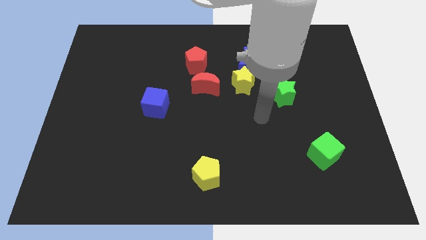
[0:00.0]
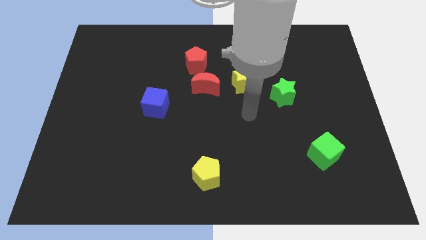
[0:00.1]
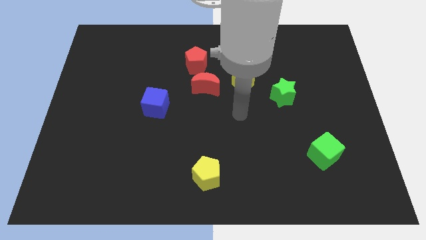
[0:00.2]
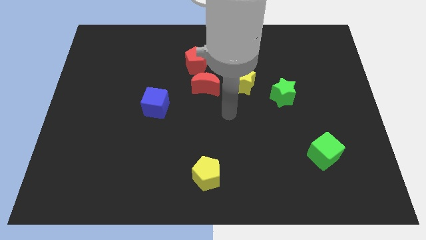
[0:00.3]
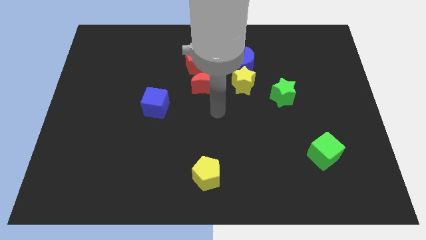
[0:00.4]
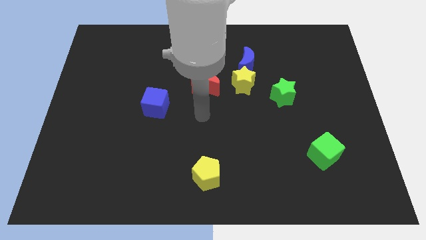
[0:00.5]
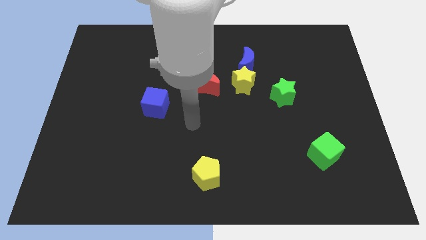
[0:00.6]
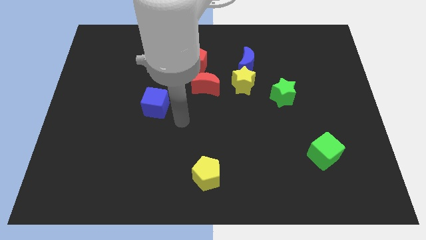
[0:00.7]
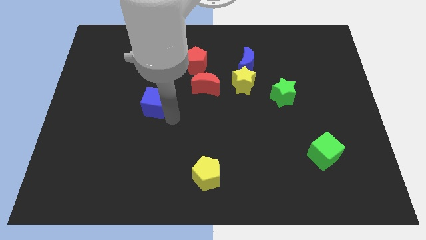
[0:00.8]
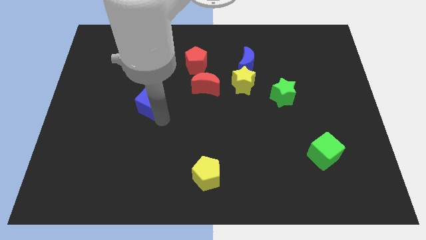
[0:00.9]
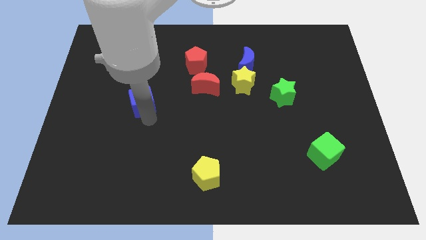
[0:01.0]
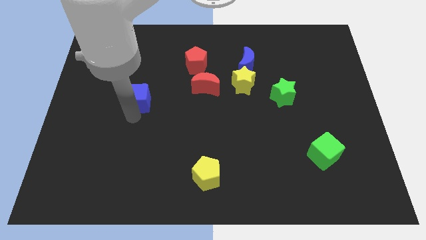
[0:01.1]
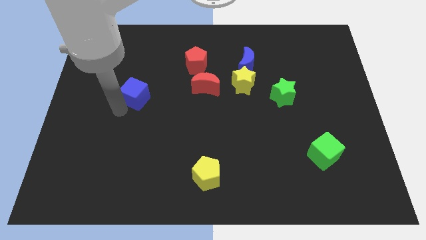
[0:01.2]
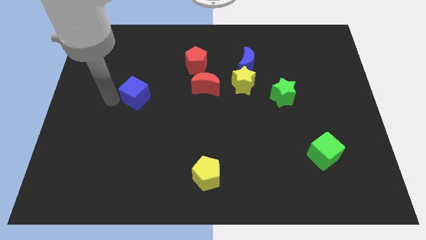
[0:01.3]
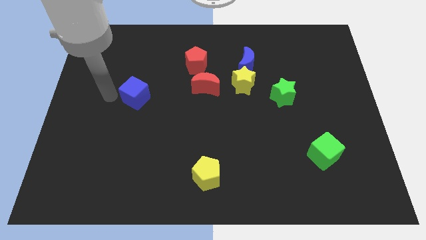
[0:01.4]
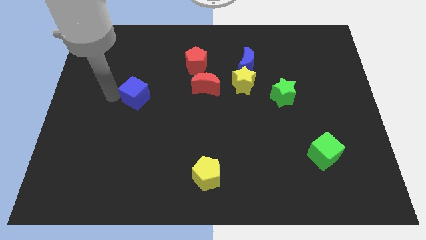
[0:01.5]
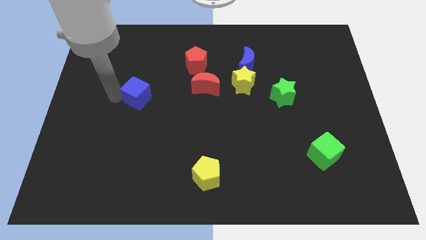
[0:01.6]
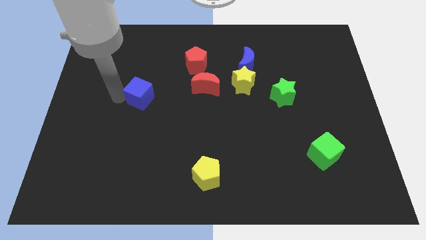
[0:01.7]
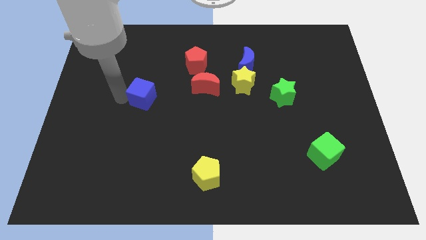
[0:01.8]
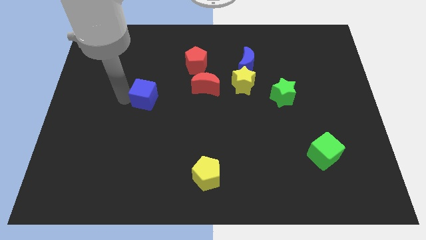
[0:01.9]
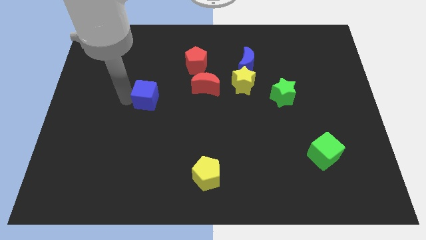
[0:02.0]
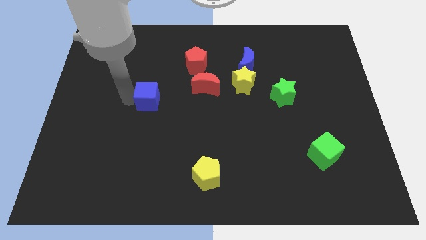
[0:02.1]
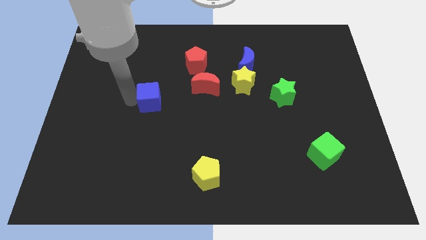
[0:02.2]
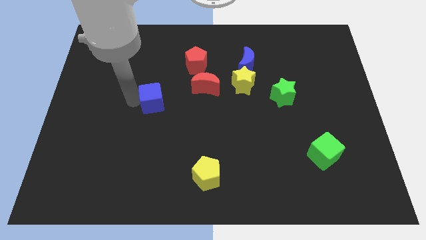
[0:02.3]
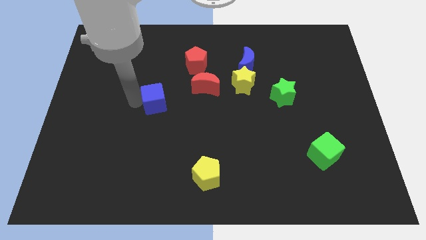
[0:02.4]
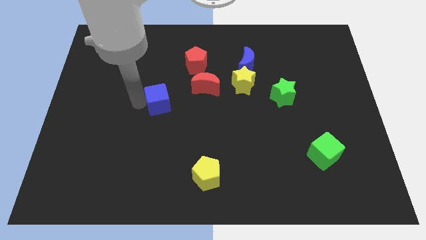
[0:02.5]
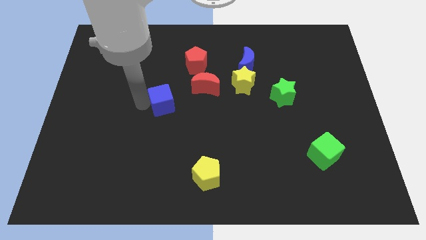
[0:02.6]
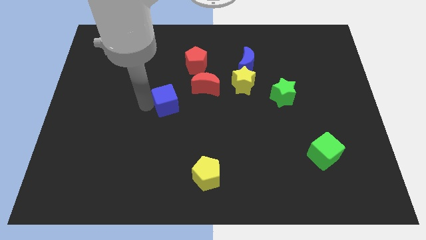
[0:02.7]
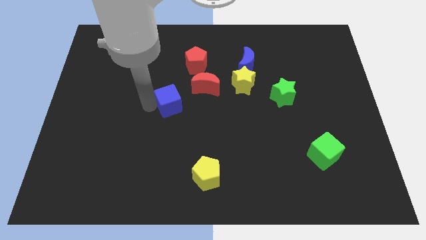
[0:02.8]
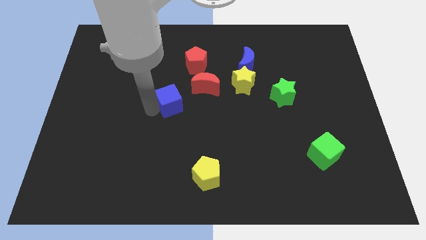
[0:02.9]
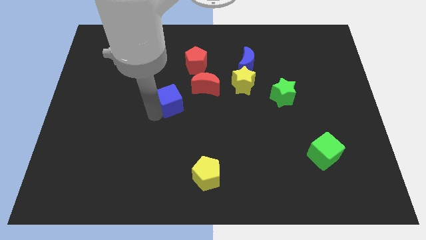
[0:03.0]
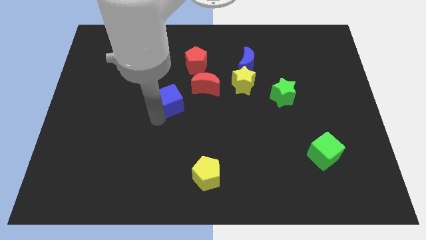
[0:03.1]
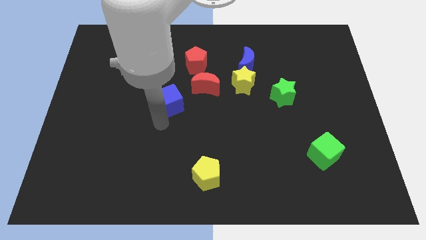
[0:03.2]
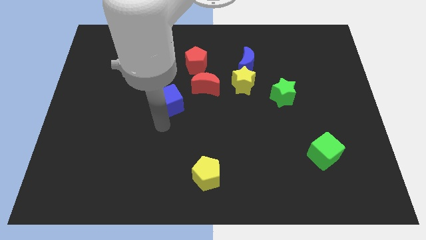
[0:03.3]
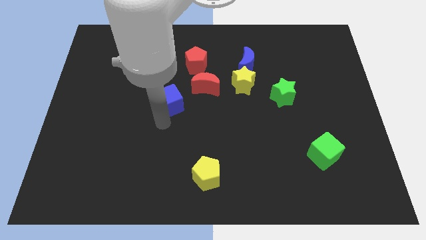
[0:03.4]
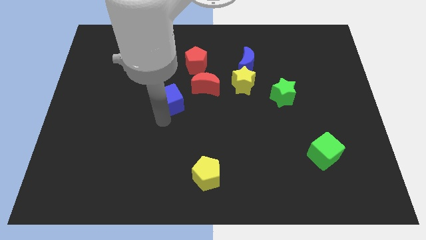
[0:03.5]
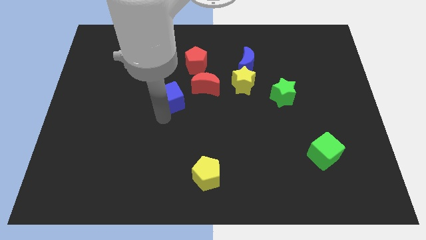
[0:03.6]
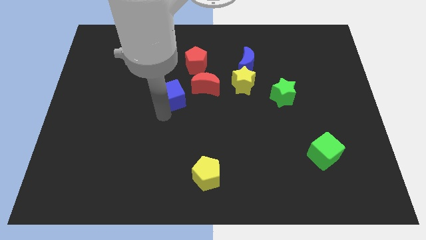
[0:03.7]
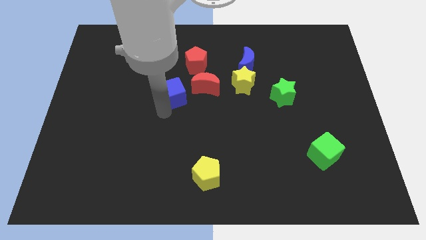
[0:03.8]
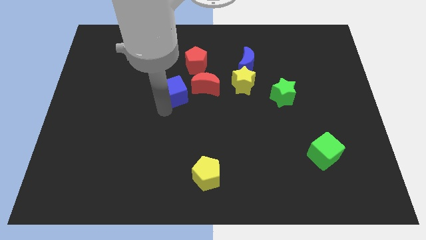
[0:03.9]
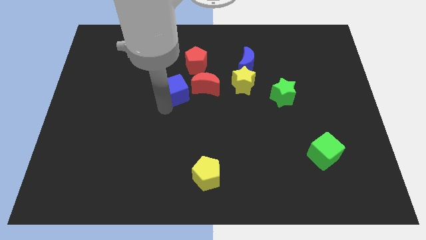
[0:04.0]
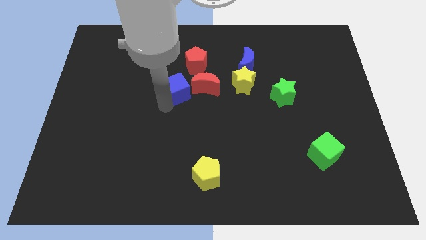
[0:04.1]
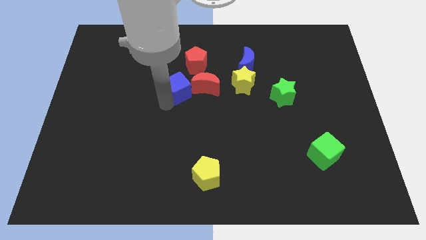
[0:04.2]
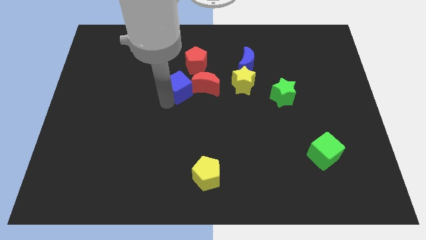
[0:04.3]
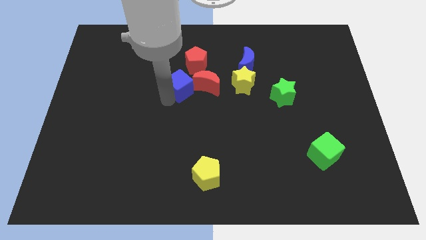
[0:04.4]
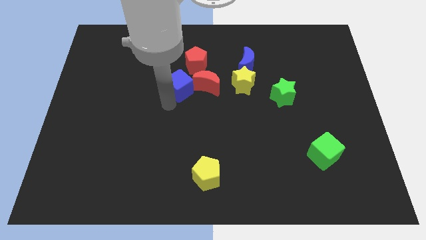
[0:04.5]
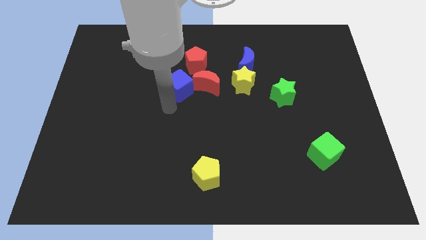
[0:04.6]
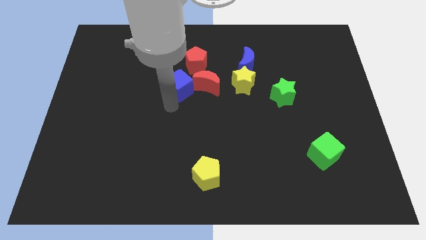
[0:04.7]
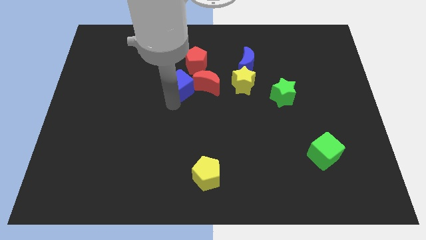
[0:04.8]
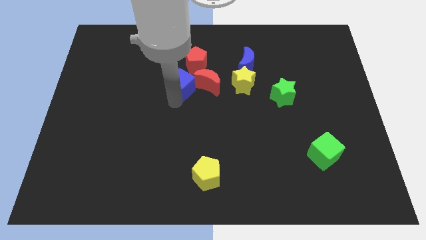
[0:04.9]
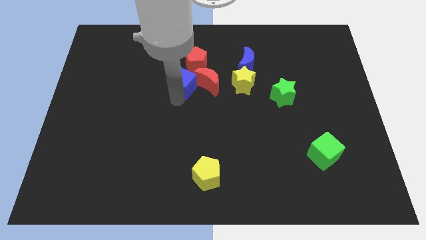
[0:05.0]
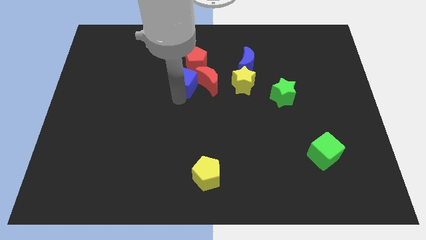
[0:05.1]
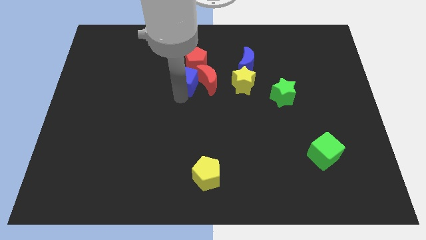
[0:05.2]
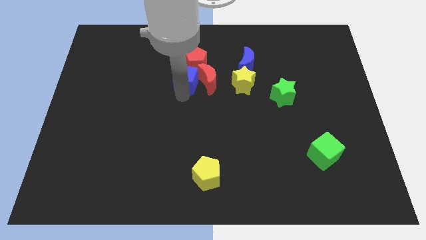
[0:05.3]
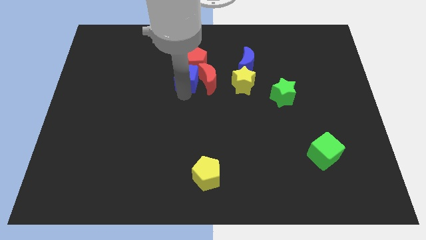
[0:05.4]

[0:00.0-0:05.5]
move the blue cube towards the red pentagon

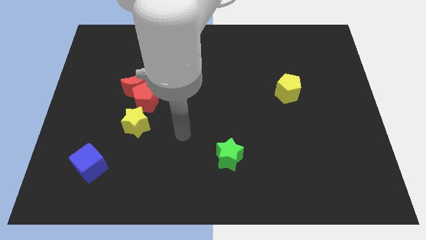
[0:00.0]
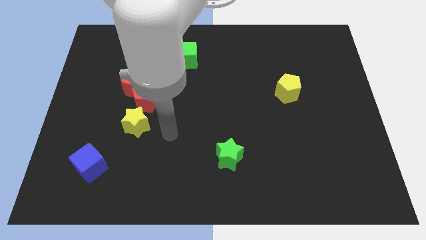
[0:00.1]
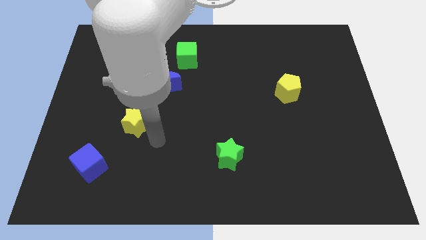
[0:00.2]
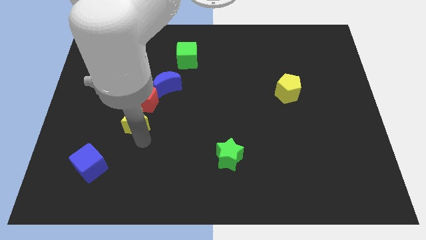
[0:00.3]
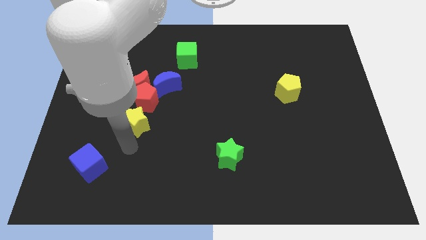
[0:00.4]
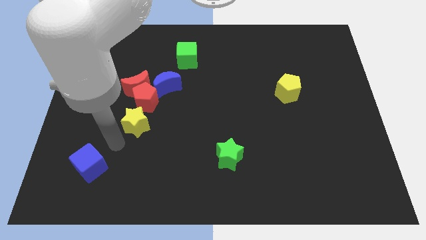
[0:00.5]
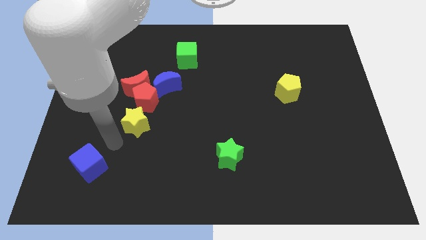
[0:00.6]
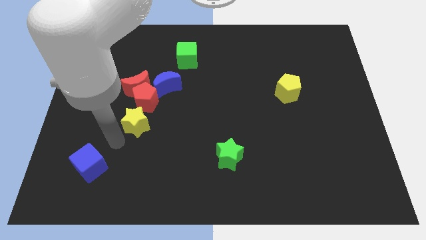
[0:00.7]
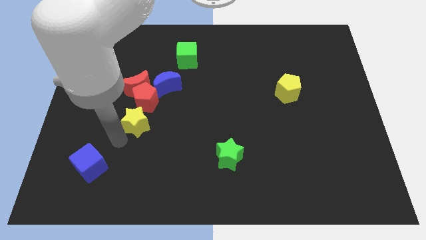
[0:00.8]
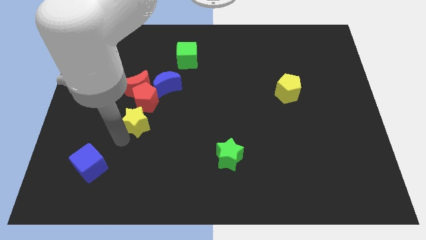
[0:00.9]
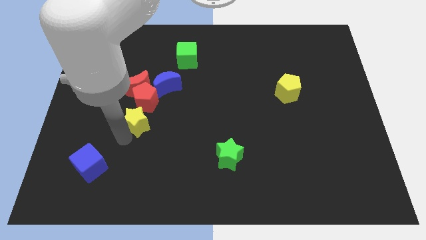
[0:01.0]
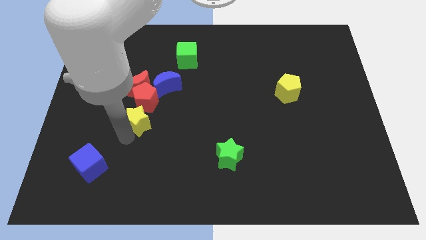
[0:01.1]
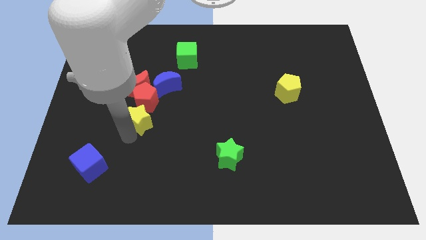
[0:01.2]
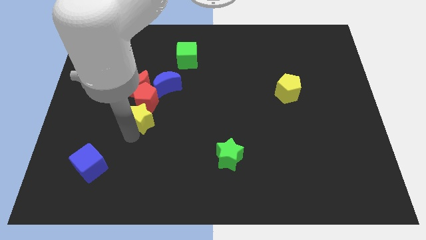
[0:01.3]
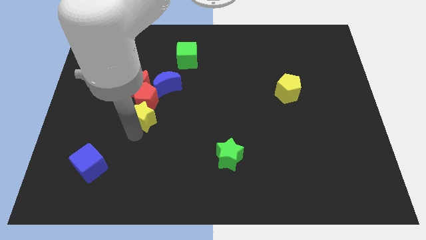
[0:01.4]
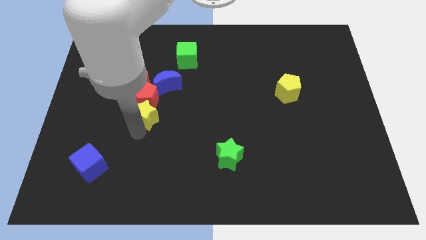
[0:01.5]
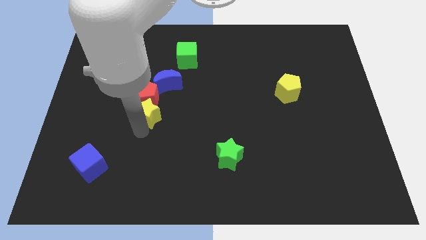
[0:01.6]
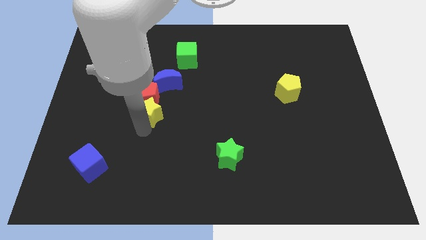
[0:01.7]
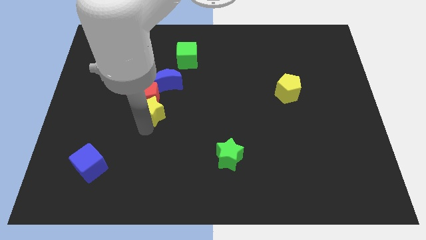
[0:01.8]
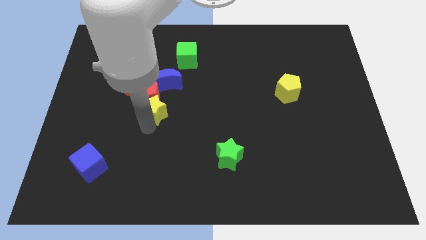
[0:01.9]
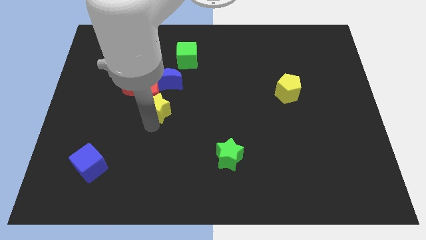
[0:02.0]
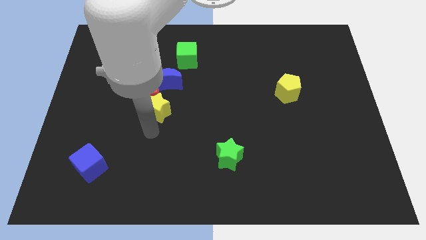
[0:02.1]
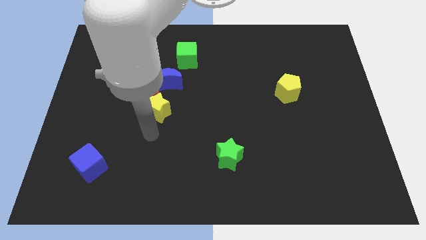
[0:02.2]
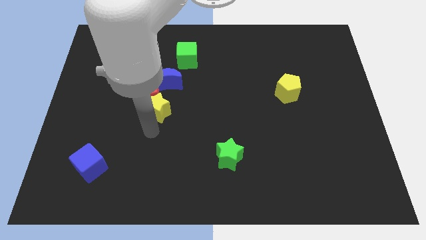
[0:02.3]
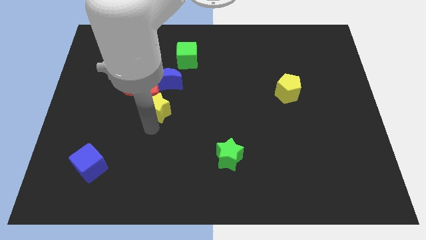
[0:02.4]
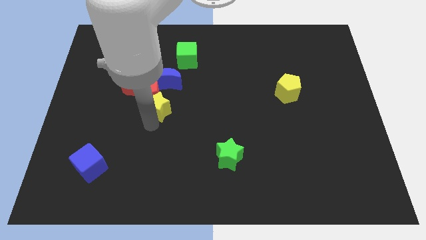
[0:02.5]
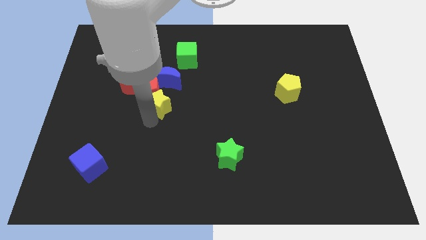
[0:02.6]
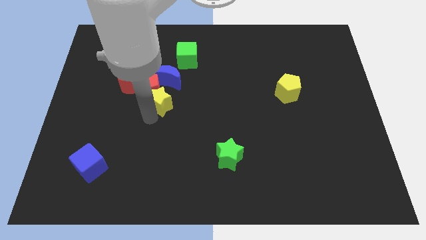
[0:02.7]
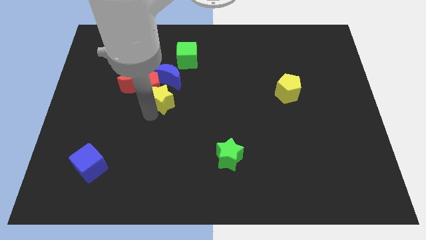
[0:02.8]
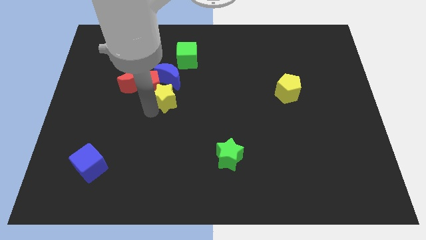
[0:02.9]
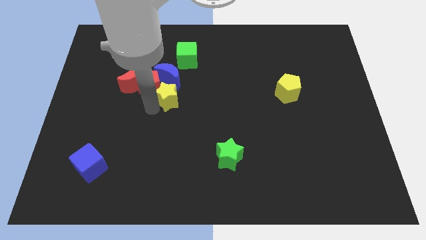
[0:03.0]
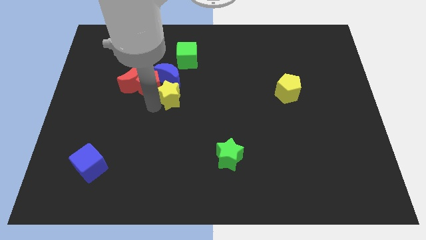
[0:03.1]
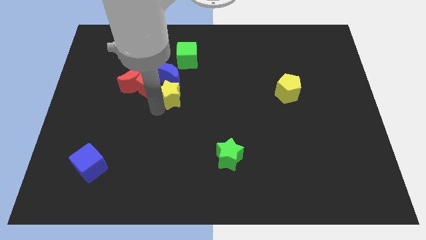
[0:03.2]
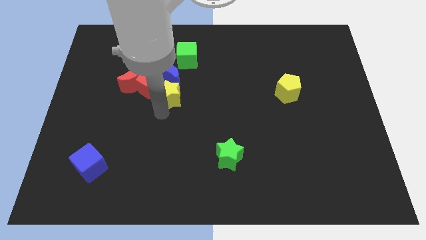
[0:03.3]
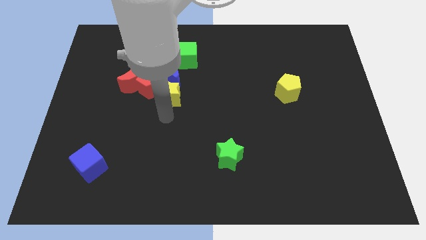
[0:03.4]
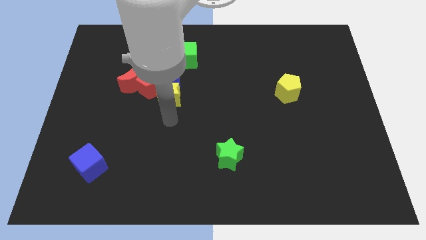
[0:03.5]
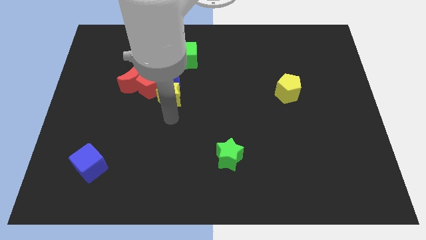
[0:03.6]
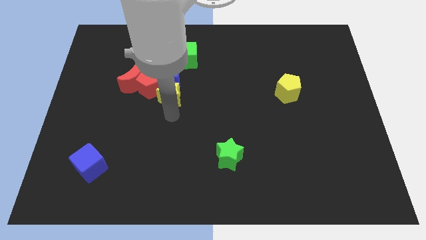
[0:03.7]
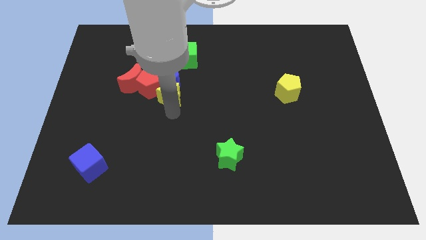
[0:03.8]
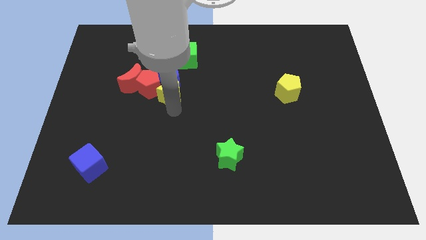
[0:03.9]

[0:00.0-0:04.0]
put the yellow star next to the blue moon
